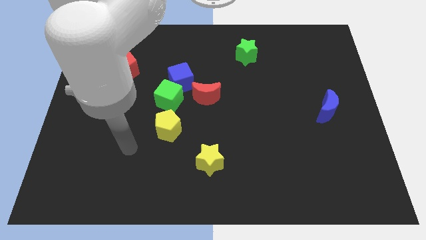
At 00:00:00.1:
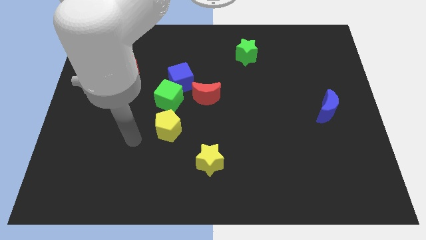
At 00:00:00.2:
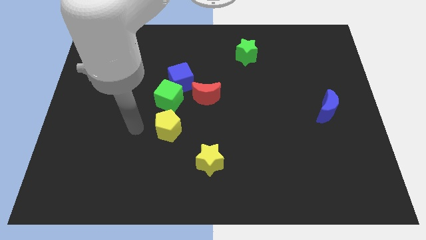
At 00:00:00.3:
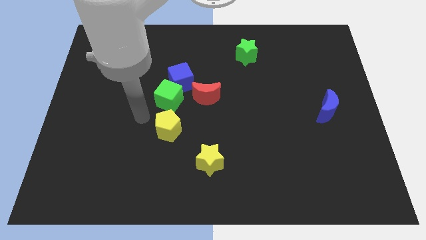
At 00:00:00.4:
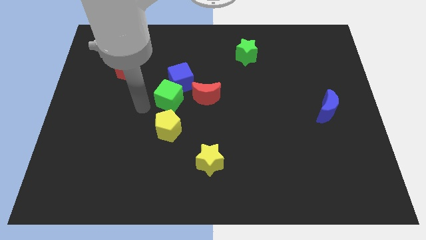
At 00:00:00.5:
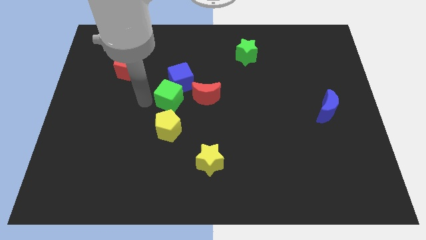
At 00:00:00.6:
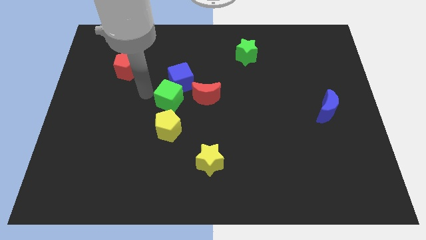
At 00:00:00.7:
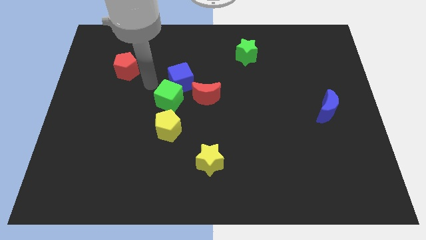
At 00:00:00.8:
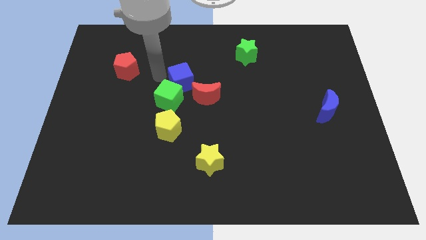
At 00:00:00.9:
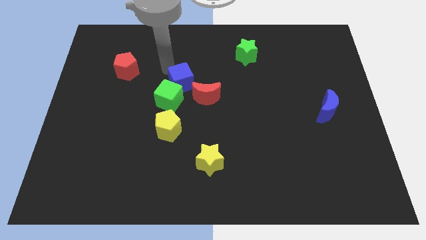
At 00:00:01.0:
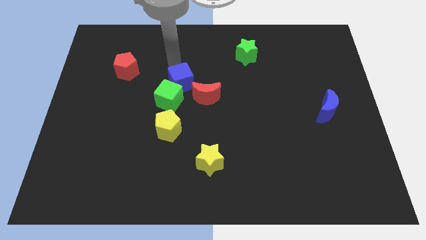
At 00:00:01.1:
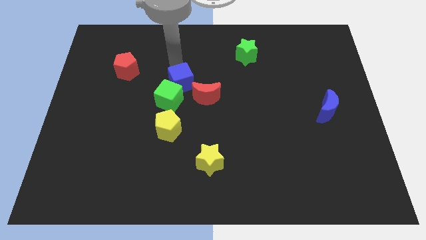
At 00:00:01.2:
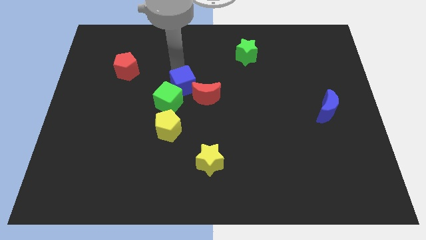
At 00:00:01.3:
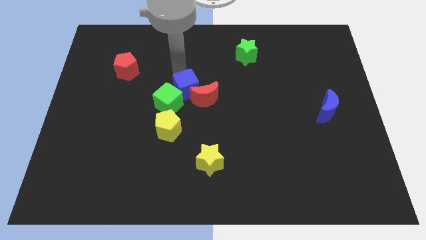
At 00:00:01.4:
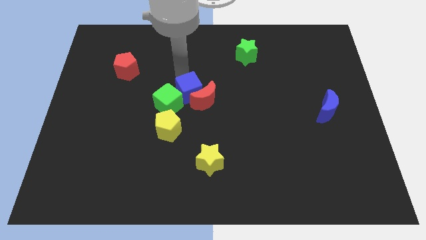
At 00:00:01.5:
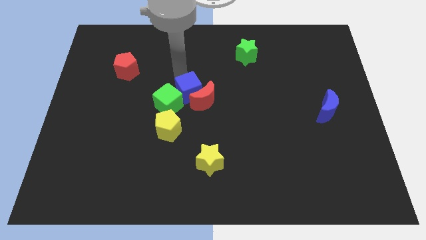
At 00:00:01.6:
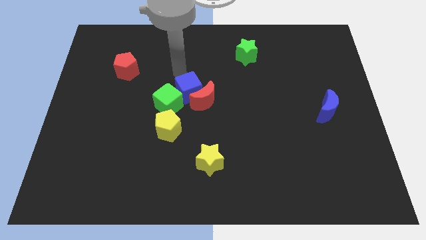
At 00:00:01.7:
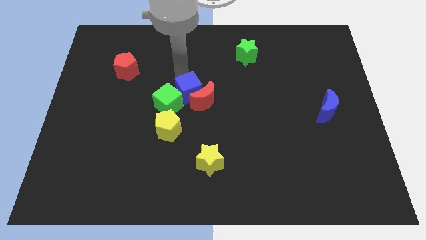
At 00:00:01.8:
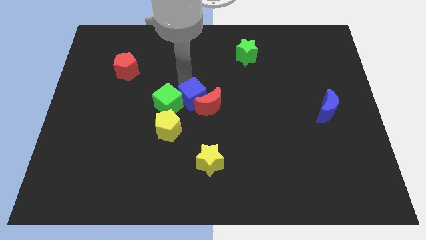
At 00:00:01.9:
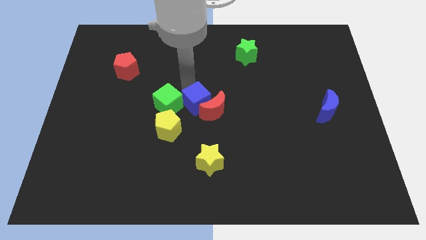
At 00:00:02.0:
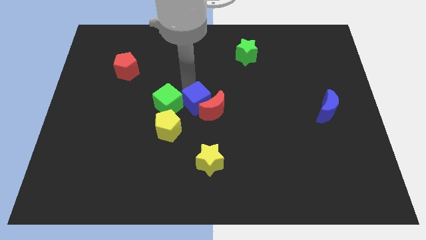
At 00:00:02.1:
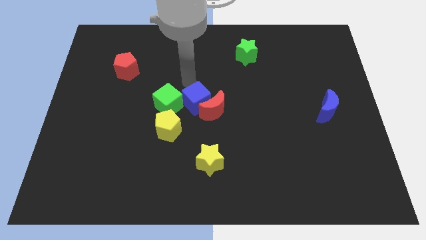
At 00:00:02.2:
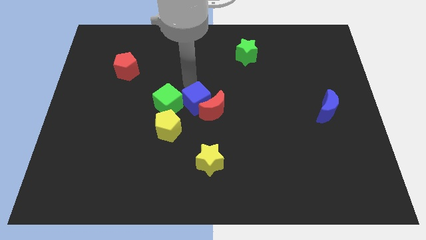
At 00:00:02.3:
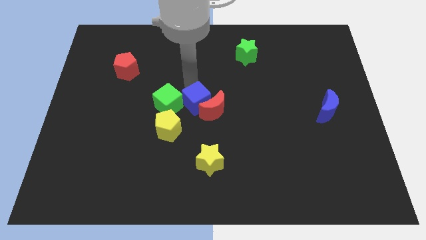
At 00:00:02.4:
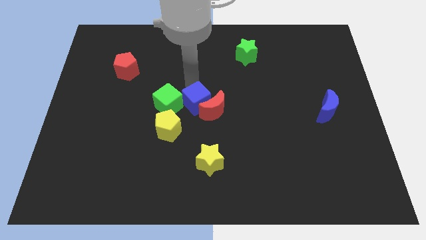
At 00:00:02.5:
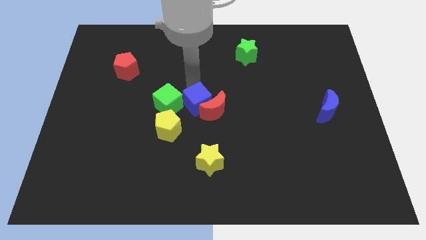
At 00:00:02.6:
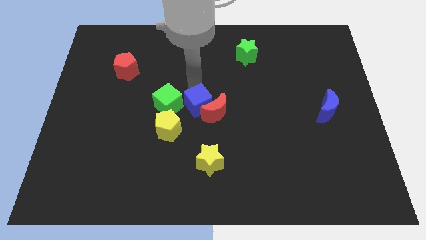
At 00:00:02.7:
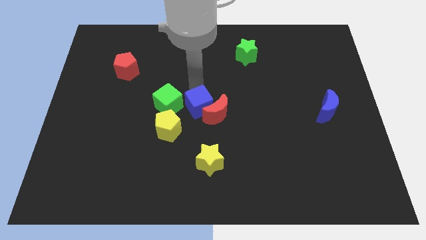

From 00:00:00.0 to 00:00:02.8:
slightly slide the blue cube downwards

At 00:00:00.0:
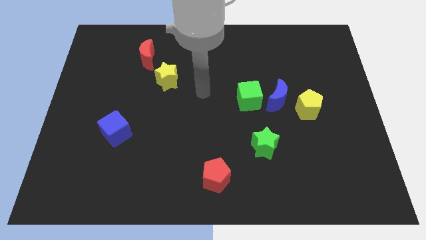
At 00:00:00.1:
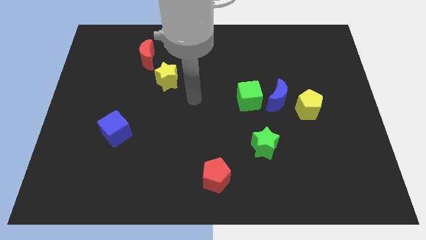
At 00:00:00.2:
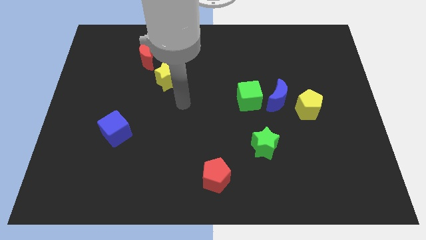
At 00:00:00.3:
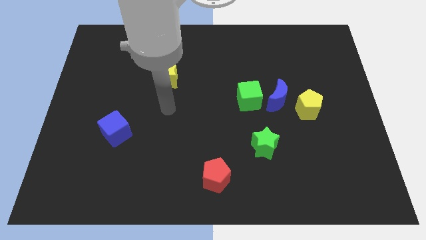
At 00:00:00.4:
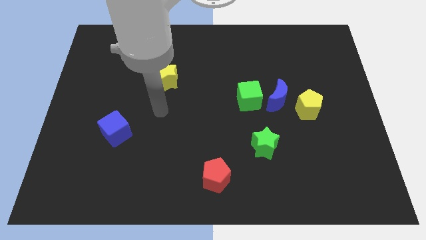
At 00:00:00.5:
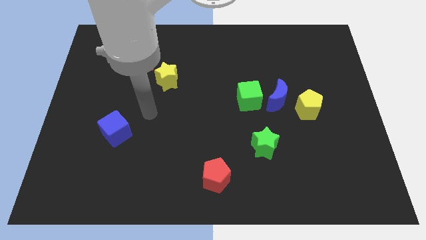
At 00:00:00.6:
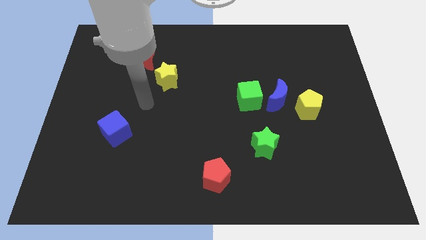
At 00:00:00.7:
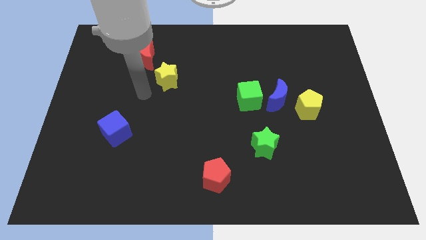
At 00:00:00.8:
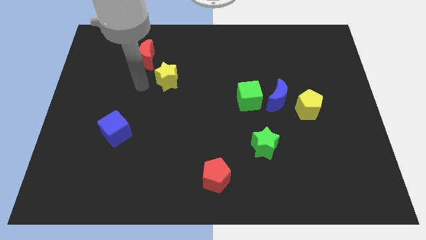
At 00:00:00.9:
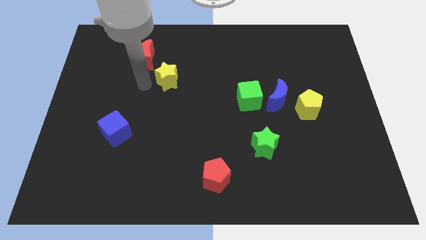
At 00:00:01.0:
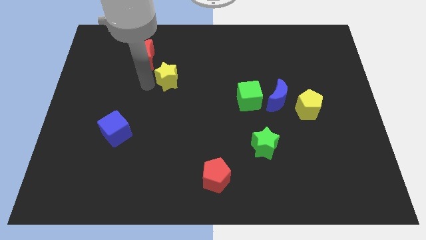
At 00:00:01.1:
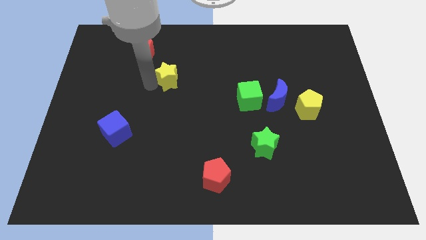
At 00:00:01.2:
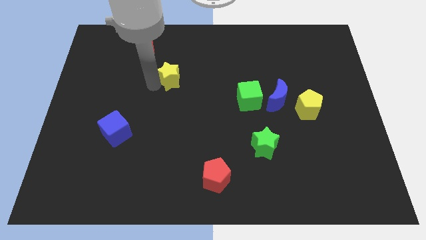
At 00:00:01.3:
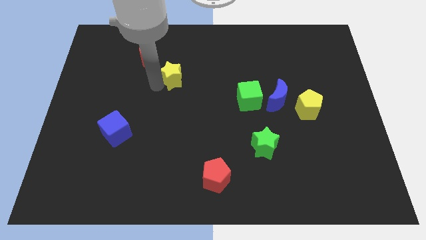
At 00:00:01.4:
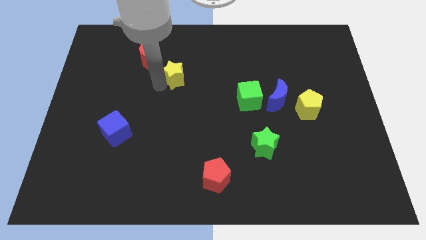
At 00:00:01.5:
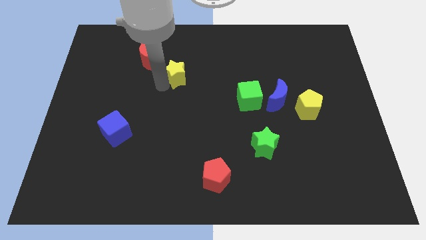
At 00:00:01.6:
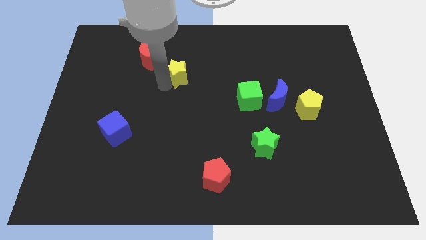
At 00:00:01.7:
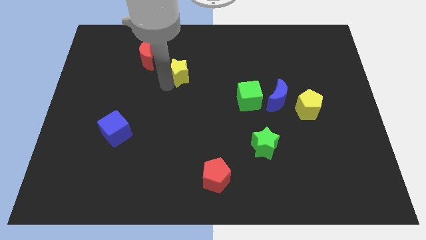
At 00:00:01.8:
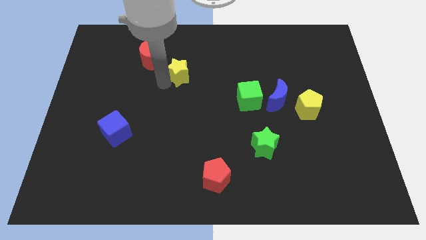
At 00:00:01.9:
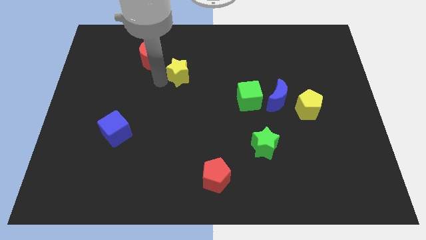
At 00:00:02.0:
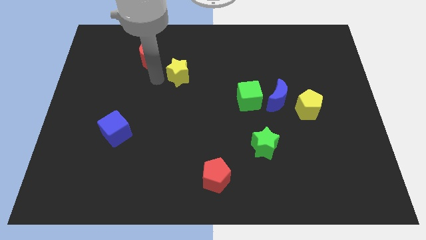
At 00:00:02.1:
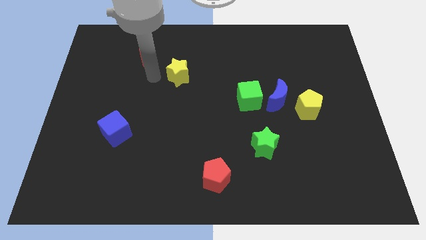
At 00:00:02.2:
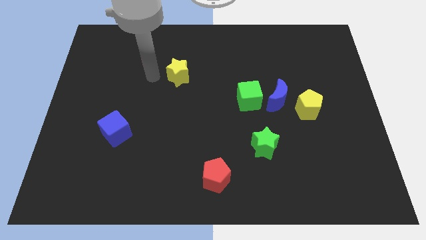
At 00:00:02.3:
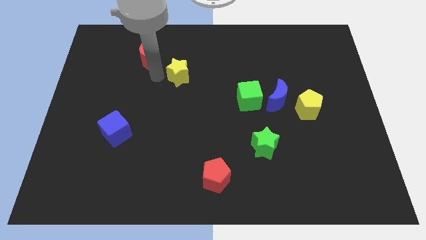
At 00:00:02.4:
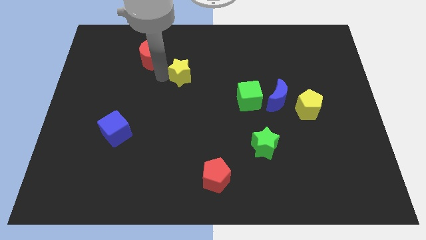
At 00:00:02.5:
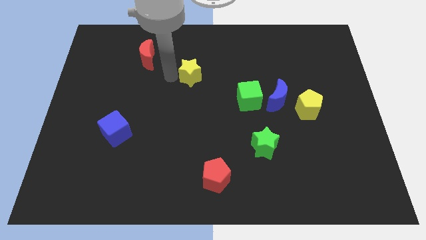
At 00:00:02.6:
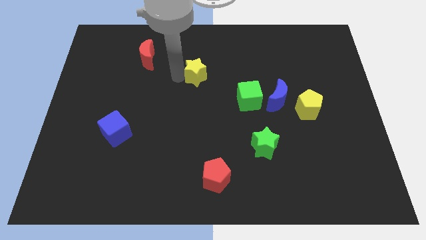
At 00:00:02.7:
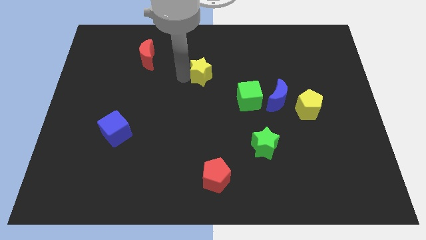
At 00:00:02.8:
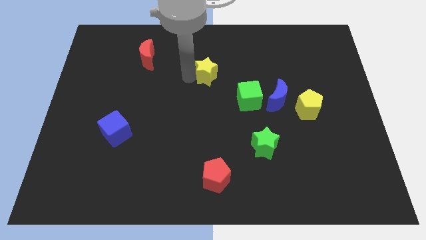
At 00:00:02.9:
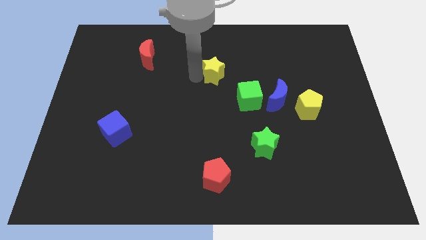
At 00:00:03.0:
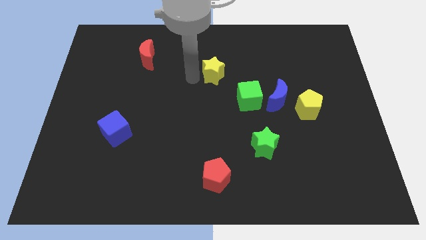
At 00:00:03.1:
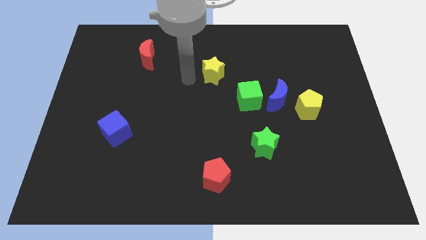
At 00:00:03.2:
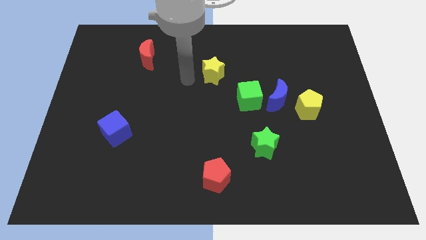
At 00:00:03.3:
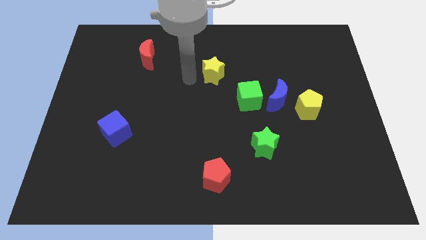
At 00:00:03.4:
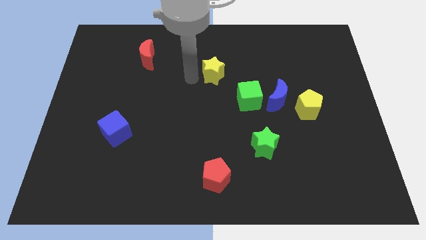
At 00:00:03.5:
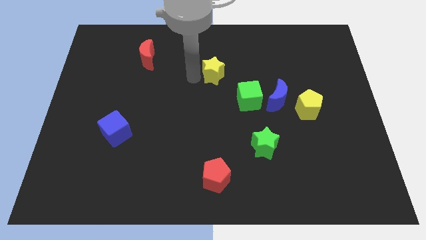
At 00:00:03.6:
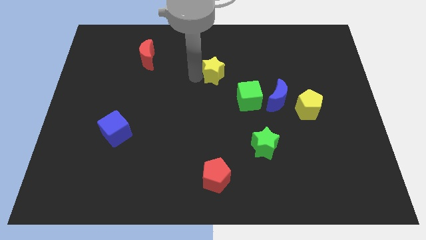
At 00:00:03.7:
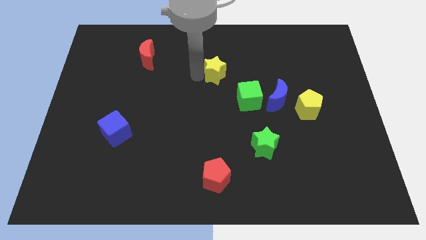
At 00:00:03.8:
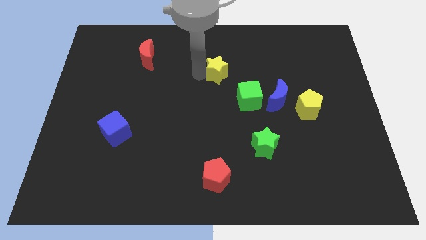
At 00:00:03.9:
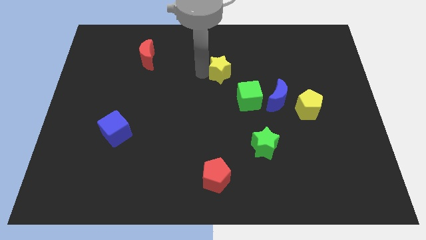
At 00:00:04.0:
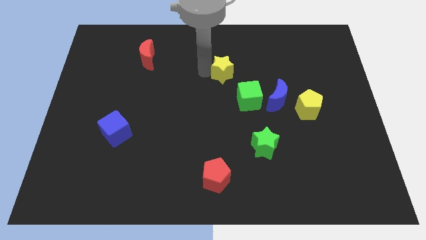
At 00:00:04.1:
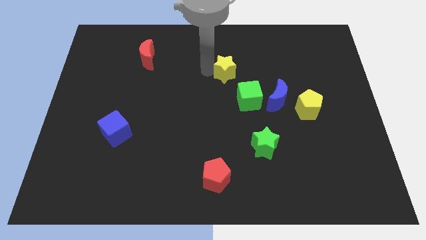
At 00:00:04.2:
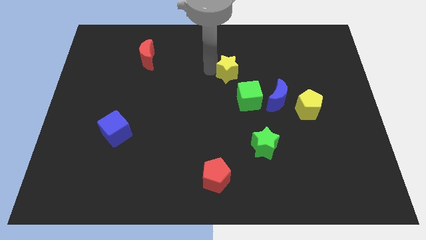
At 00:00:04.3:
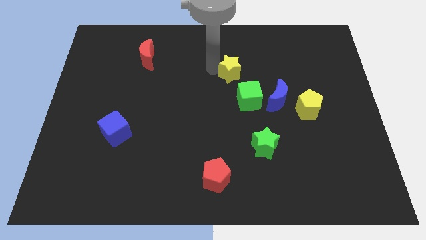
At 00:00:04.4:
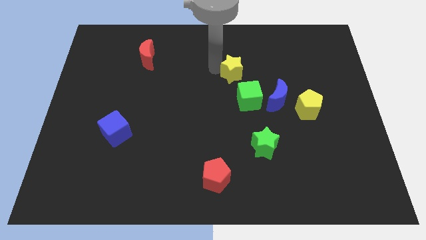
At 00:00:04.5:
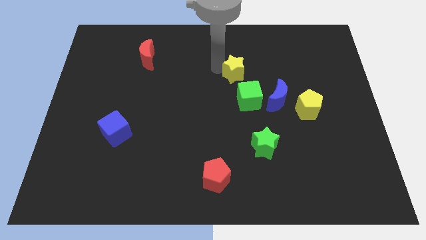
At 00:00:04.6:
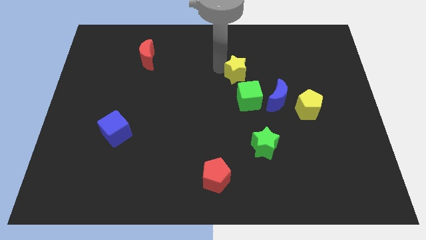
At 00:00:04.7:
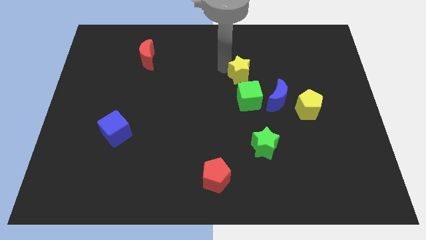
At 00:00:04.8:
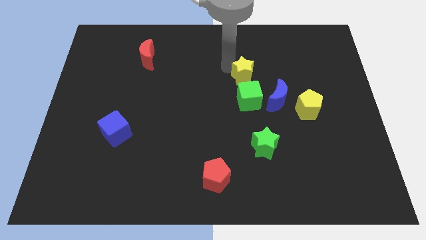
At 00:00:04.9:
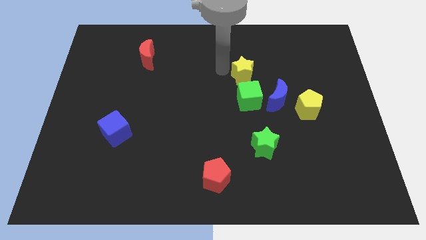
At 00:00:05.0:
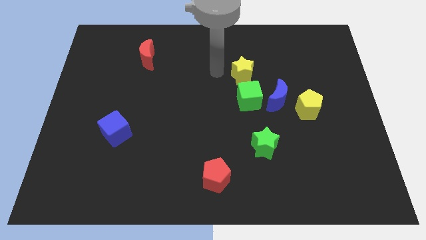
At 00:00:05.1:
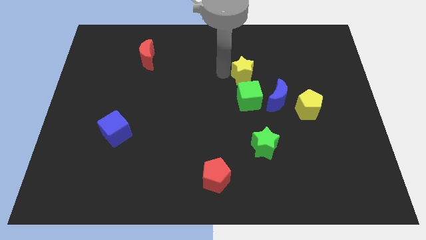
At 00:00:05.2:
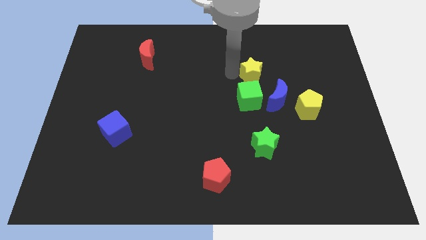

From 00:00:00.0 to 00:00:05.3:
move the yellow star to the right
